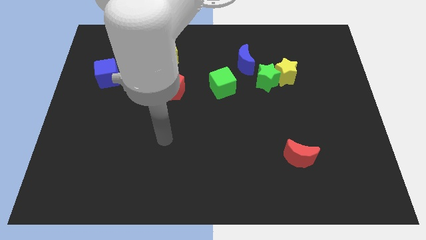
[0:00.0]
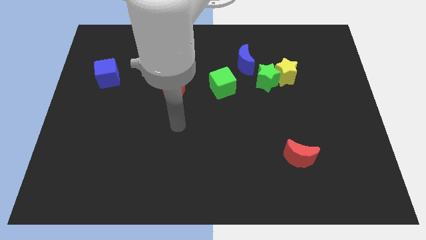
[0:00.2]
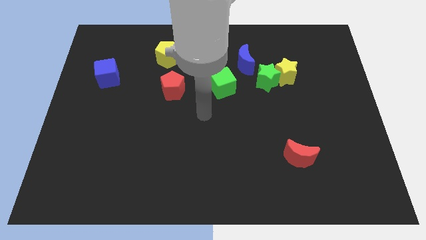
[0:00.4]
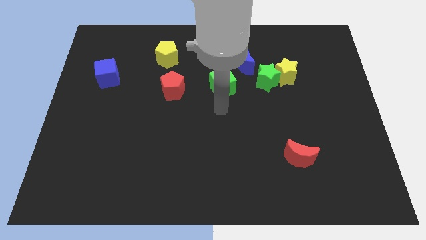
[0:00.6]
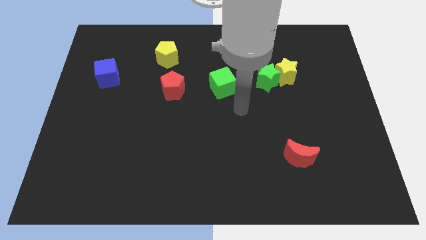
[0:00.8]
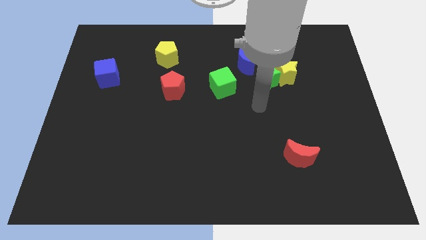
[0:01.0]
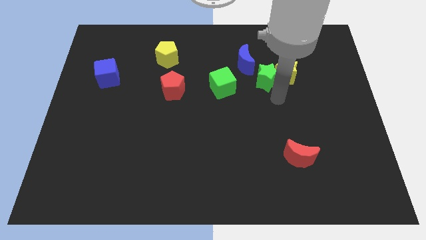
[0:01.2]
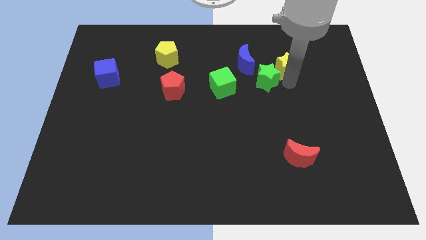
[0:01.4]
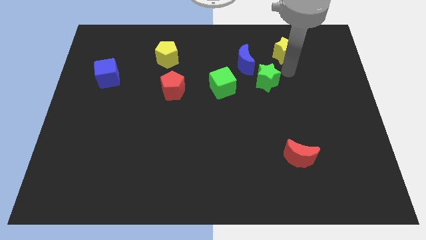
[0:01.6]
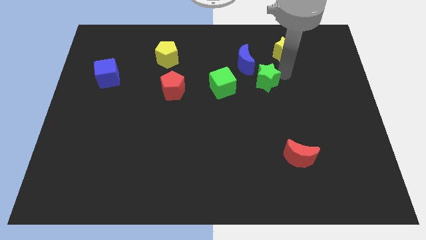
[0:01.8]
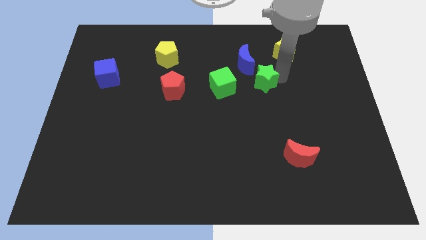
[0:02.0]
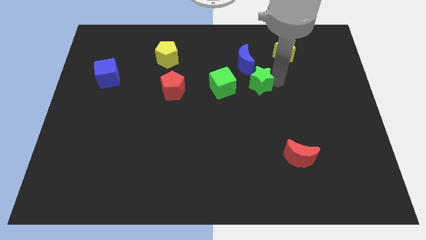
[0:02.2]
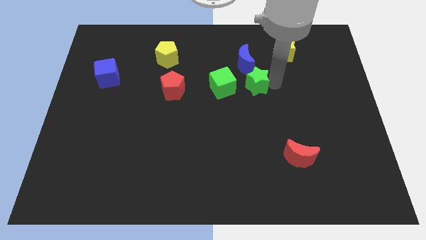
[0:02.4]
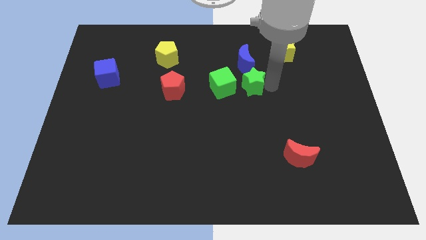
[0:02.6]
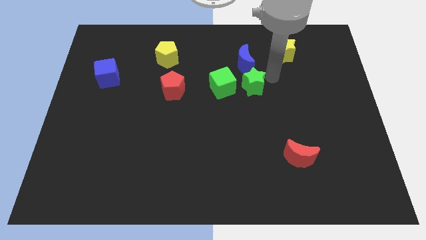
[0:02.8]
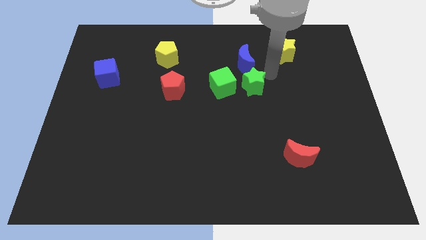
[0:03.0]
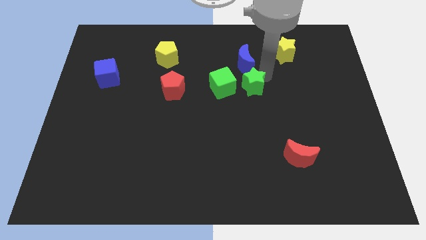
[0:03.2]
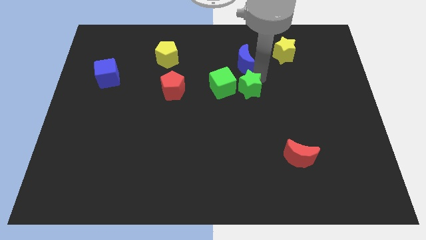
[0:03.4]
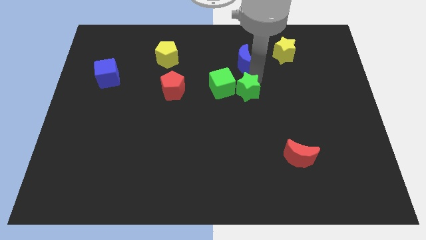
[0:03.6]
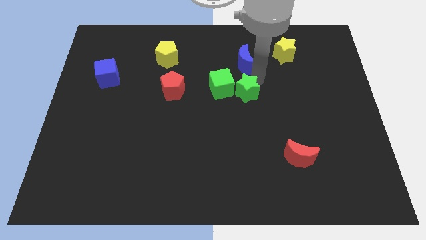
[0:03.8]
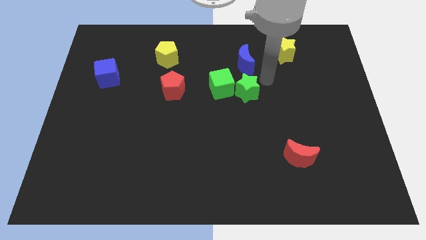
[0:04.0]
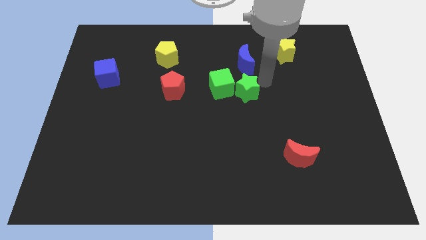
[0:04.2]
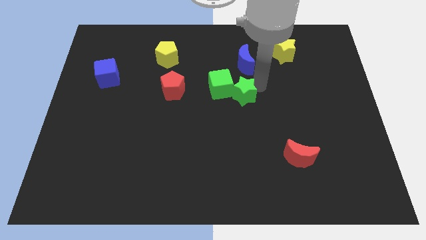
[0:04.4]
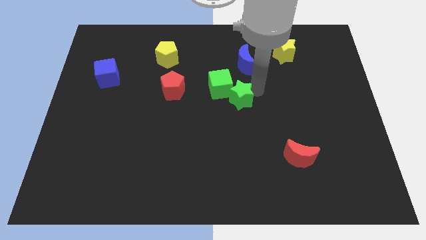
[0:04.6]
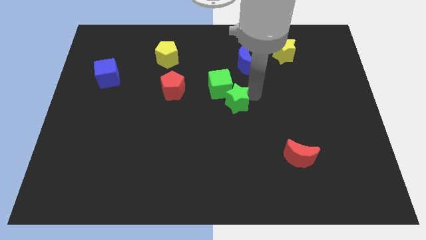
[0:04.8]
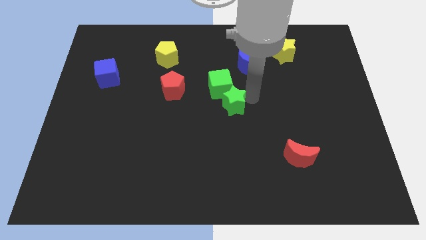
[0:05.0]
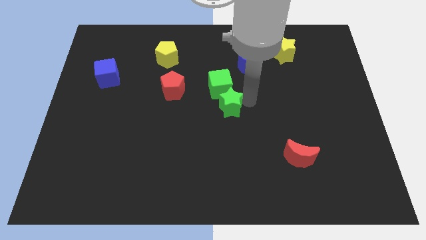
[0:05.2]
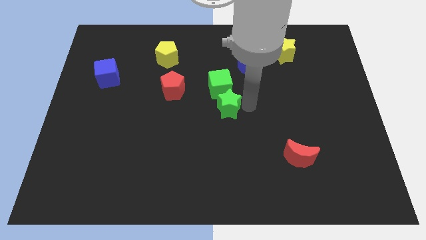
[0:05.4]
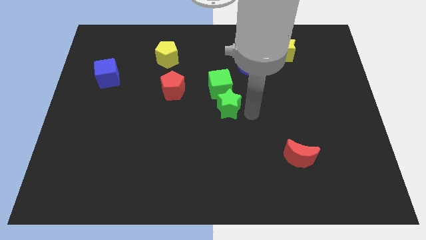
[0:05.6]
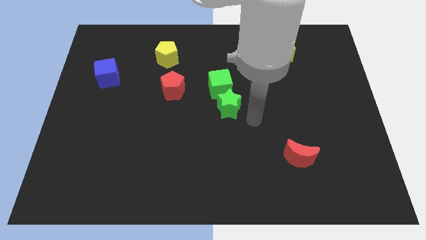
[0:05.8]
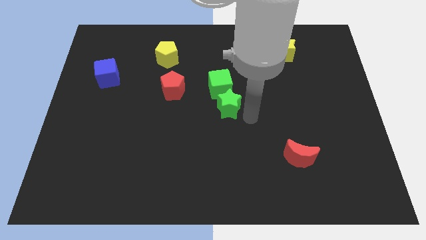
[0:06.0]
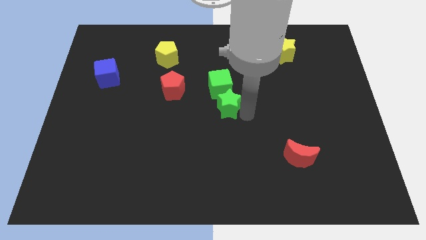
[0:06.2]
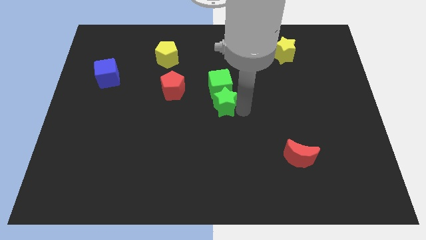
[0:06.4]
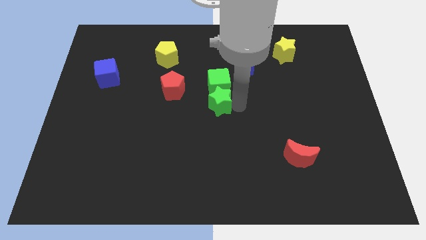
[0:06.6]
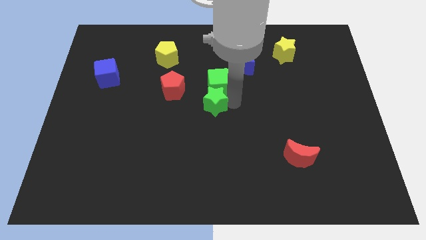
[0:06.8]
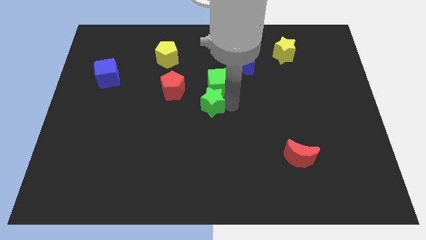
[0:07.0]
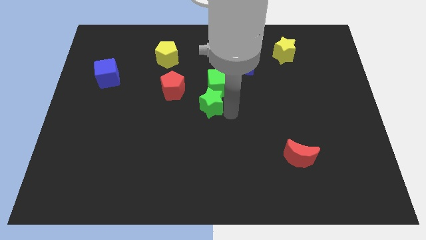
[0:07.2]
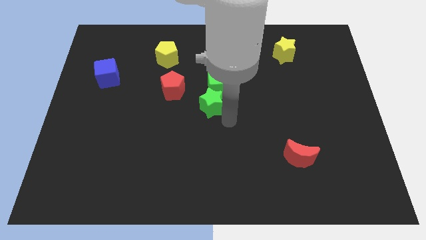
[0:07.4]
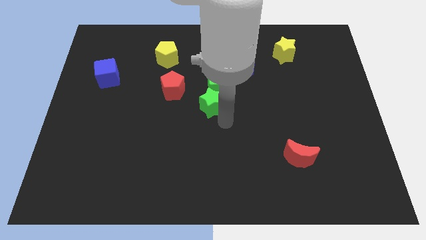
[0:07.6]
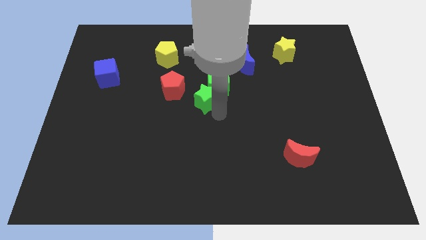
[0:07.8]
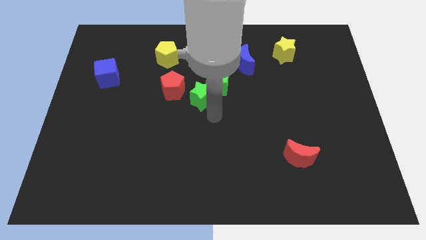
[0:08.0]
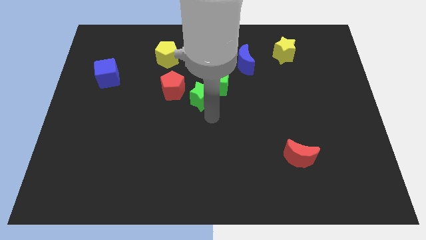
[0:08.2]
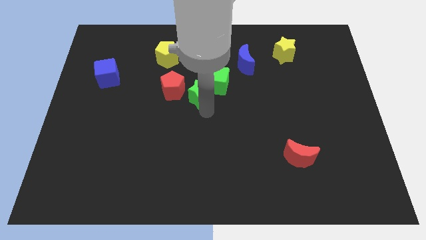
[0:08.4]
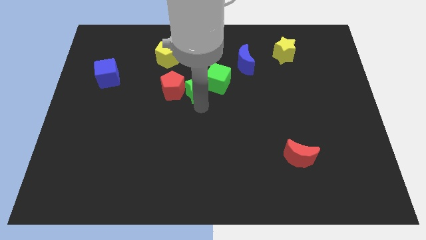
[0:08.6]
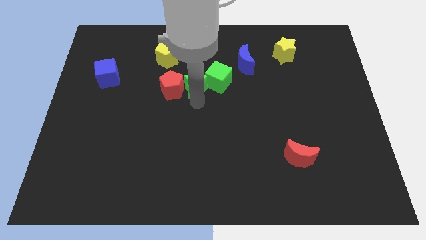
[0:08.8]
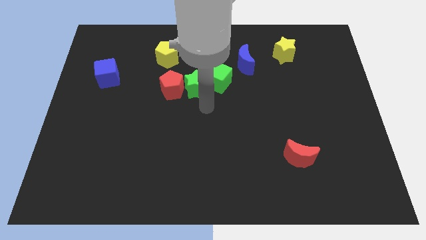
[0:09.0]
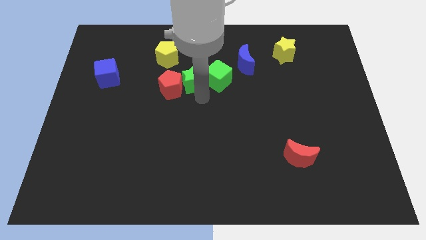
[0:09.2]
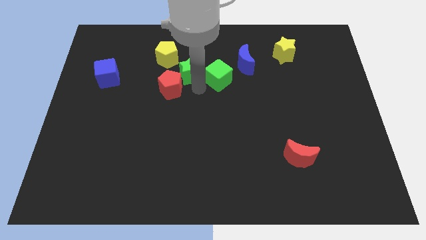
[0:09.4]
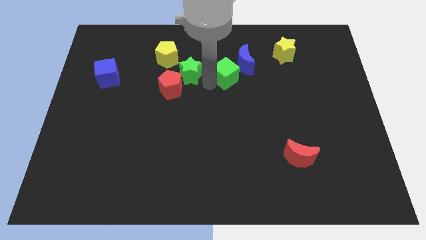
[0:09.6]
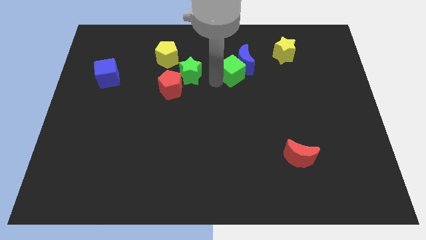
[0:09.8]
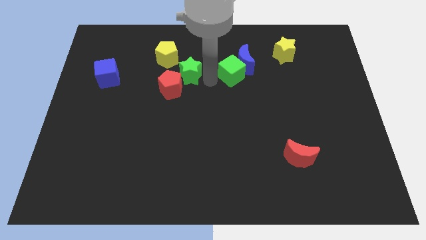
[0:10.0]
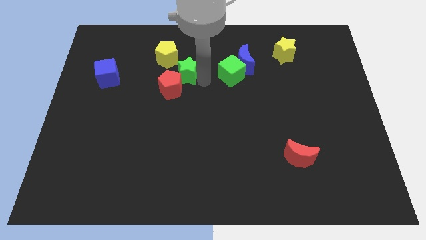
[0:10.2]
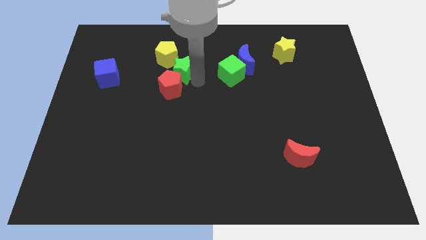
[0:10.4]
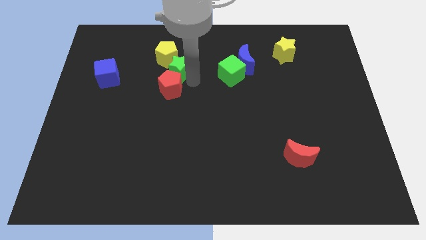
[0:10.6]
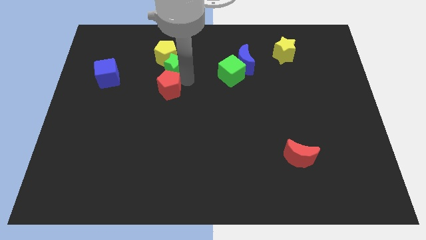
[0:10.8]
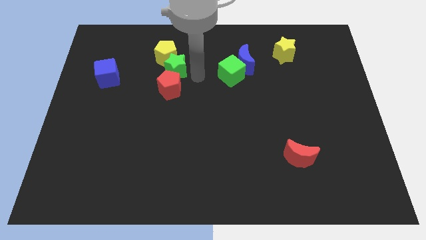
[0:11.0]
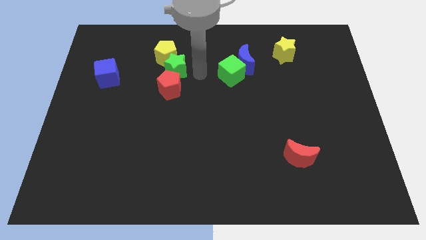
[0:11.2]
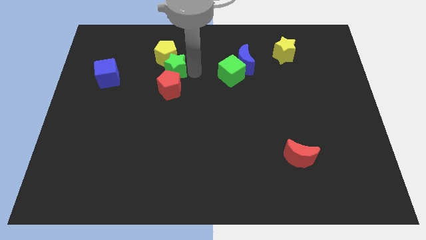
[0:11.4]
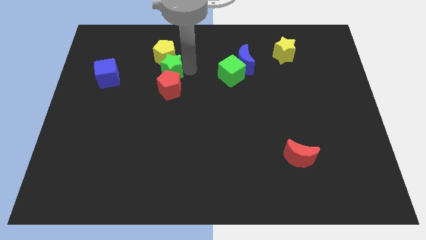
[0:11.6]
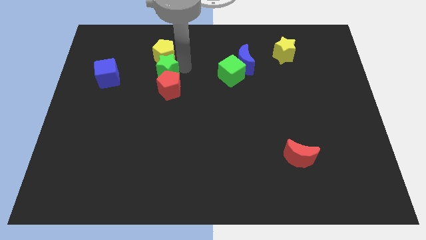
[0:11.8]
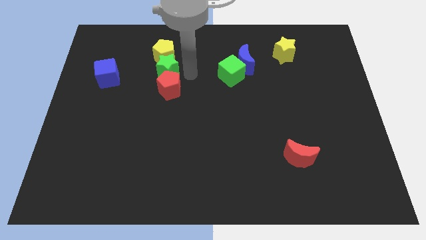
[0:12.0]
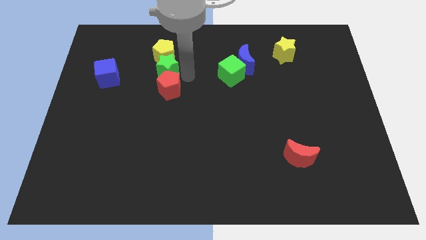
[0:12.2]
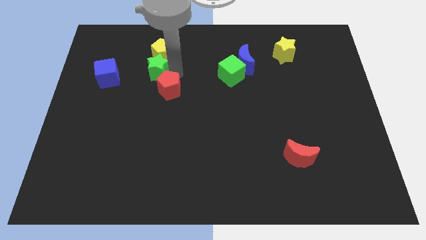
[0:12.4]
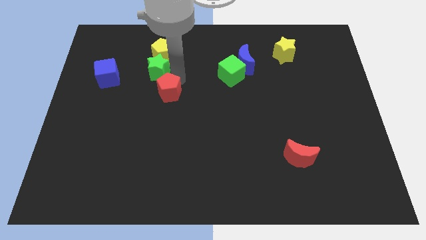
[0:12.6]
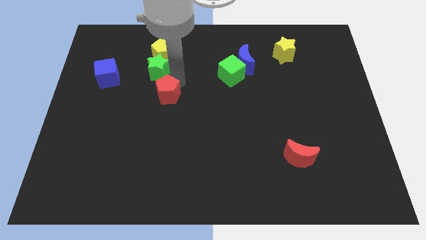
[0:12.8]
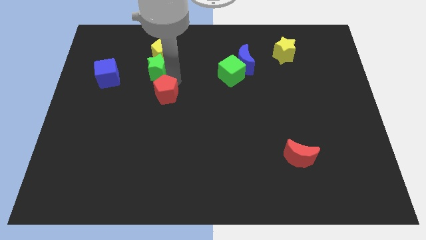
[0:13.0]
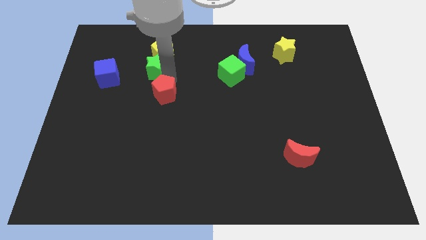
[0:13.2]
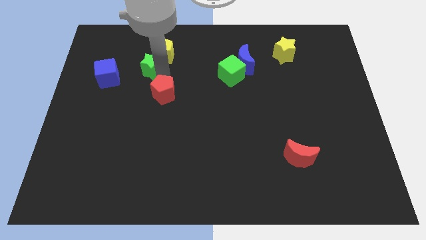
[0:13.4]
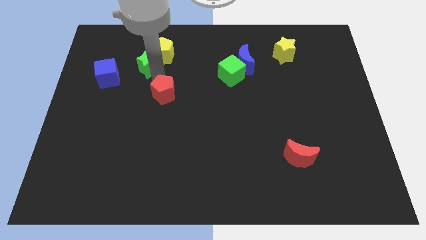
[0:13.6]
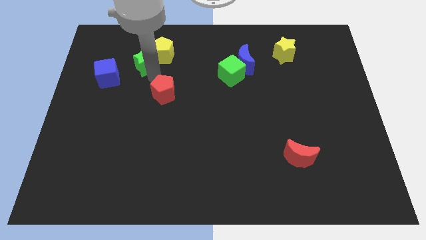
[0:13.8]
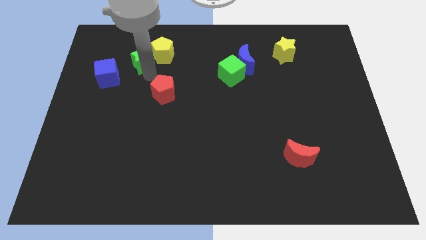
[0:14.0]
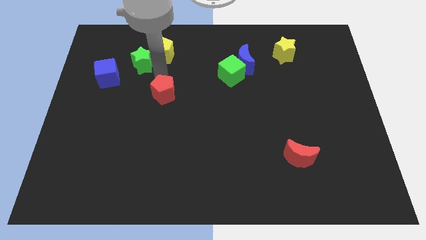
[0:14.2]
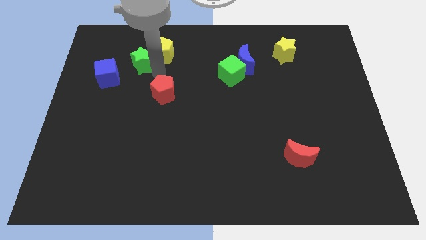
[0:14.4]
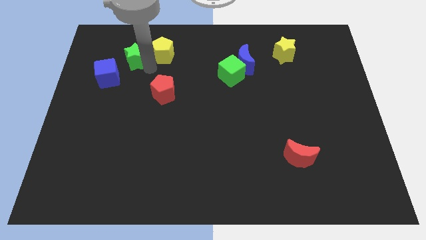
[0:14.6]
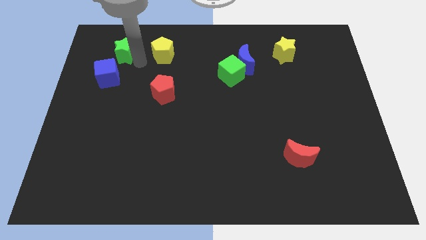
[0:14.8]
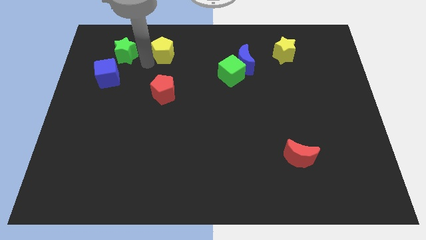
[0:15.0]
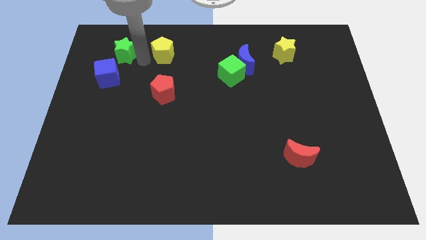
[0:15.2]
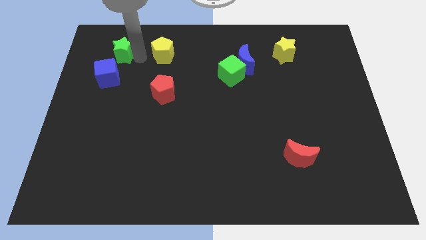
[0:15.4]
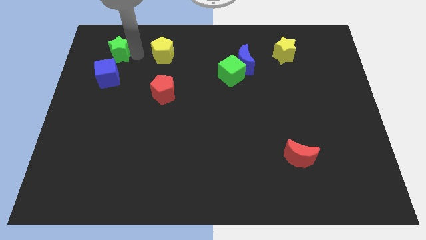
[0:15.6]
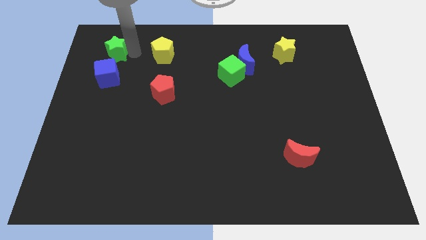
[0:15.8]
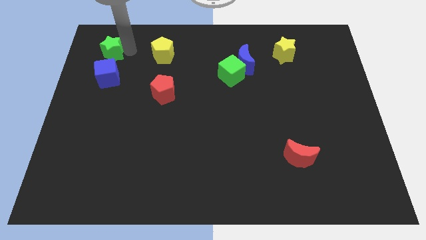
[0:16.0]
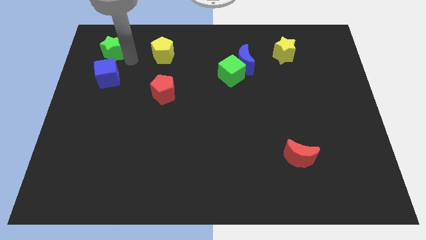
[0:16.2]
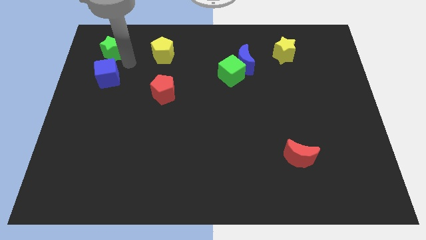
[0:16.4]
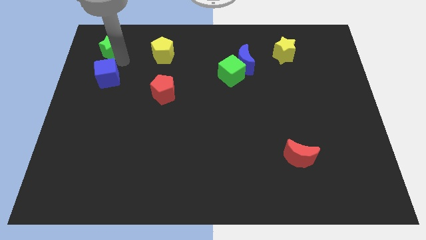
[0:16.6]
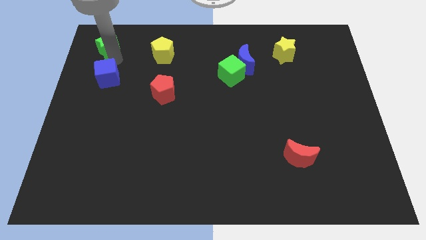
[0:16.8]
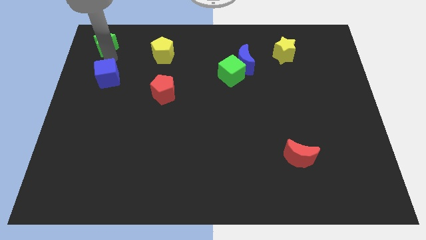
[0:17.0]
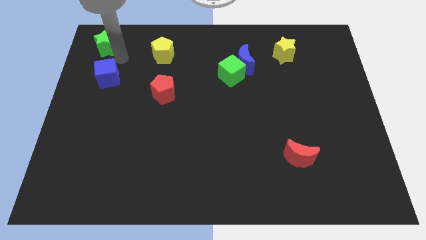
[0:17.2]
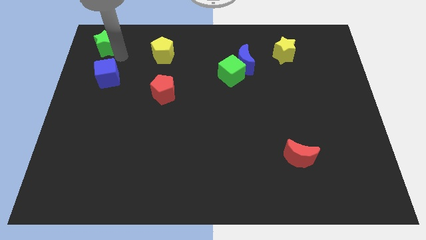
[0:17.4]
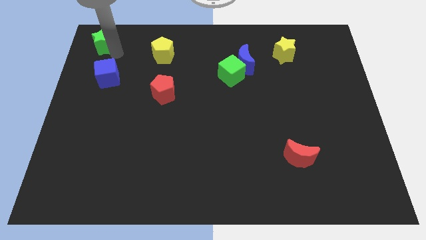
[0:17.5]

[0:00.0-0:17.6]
push the green star to the top left corner
